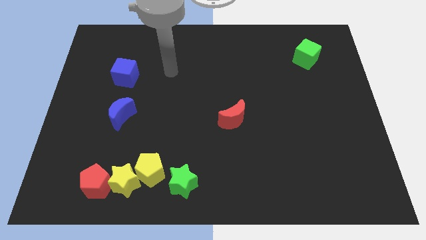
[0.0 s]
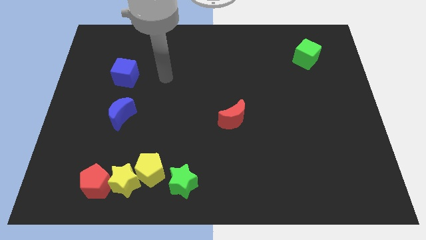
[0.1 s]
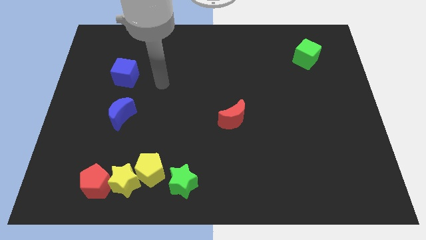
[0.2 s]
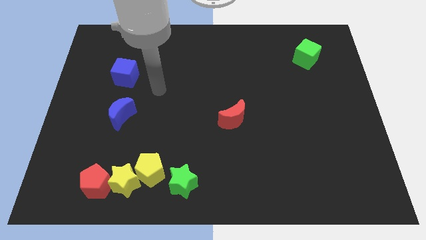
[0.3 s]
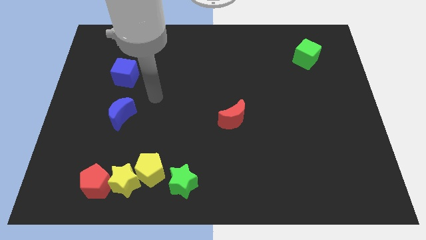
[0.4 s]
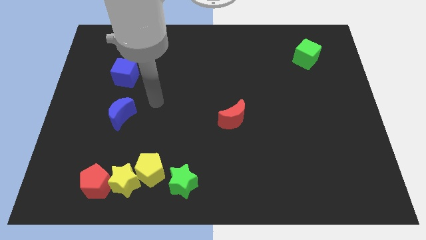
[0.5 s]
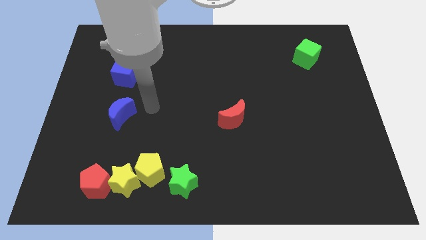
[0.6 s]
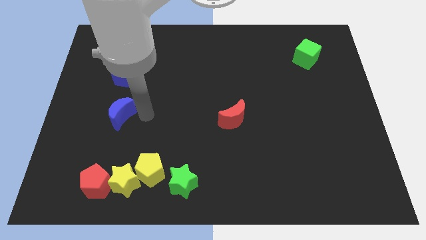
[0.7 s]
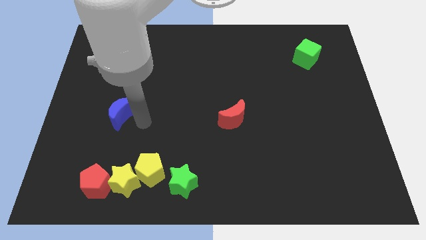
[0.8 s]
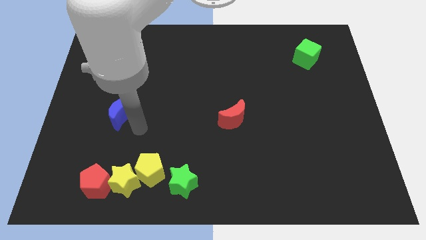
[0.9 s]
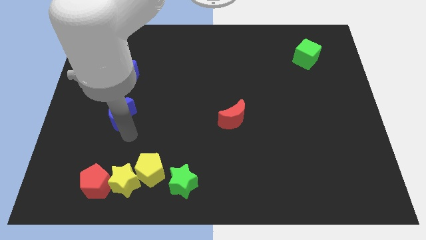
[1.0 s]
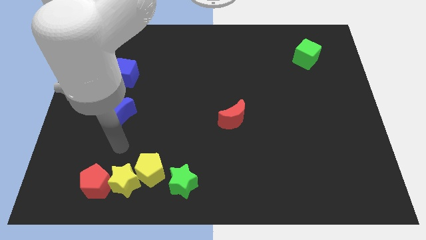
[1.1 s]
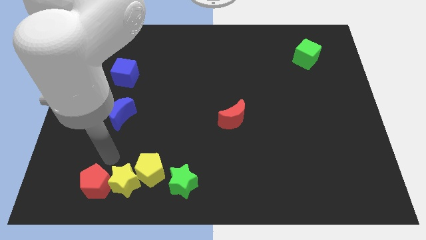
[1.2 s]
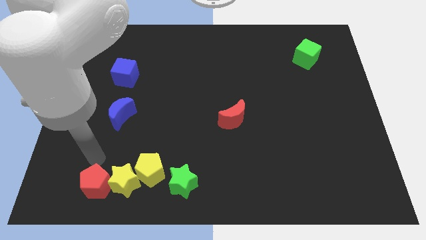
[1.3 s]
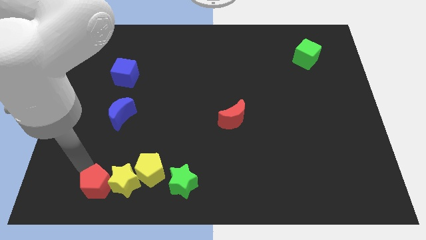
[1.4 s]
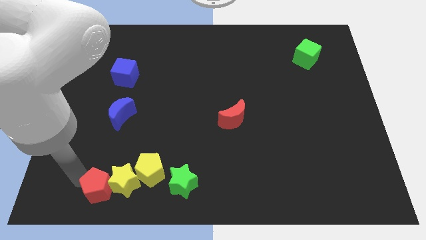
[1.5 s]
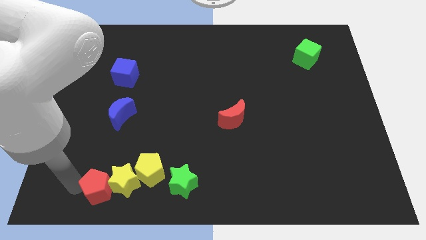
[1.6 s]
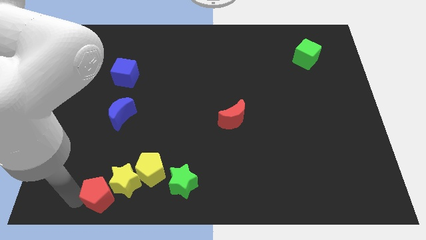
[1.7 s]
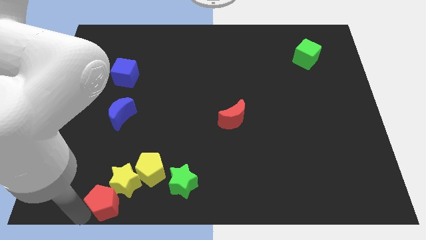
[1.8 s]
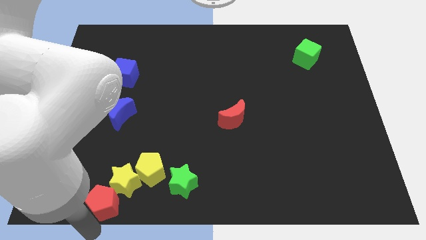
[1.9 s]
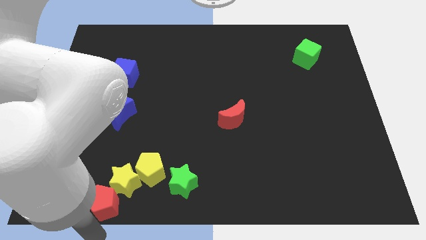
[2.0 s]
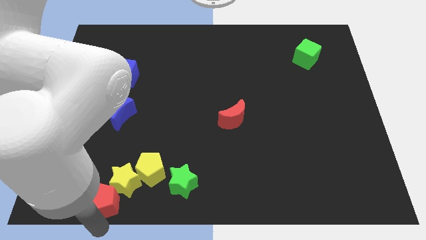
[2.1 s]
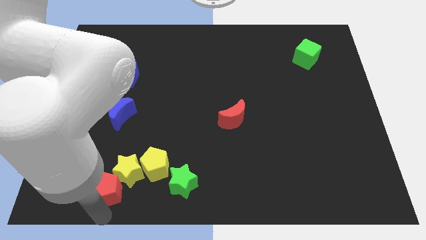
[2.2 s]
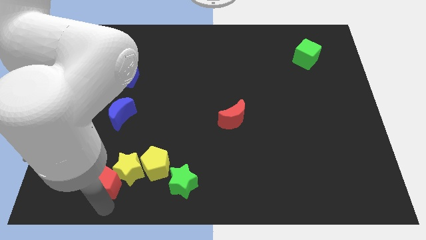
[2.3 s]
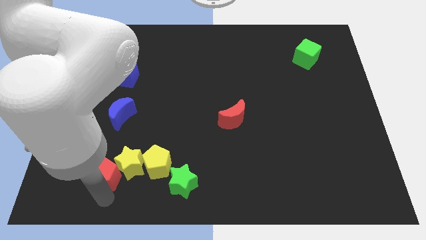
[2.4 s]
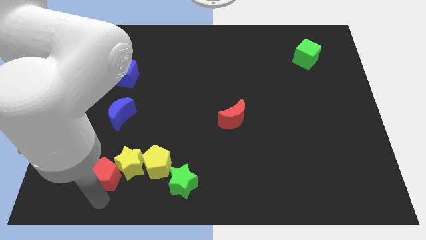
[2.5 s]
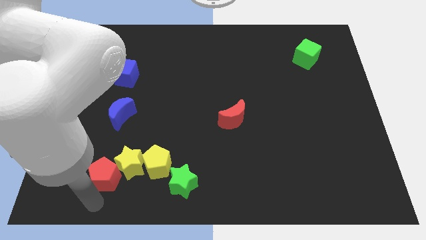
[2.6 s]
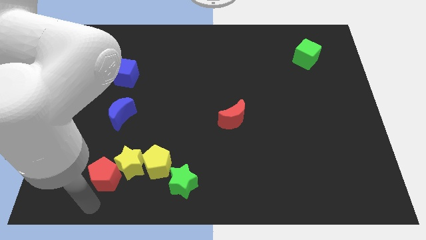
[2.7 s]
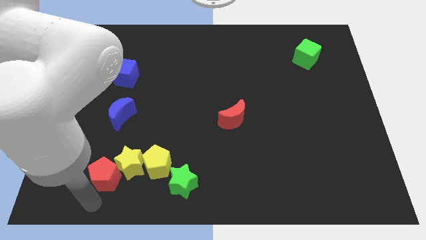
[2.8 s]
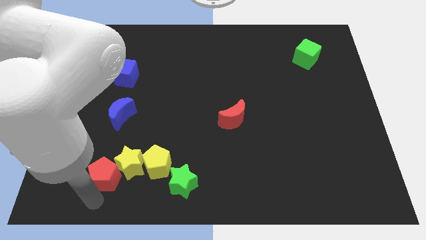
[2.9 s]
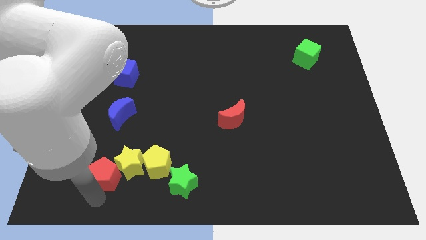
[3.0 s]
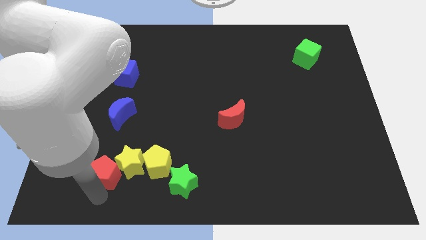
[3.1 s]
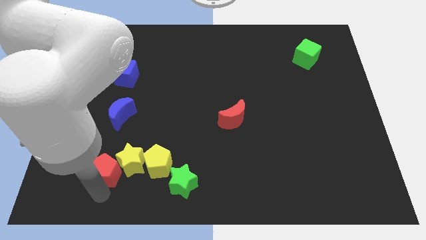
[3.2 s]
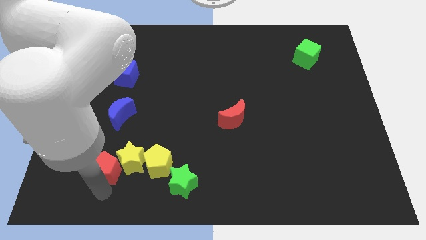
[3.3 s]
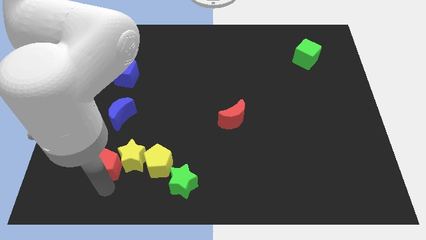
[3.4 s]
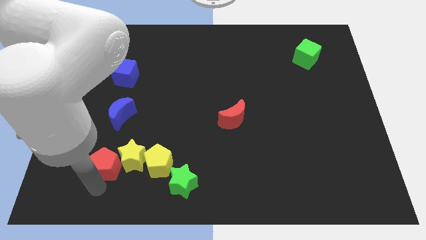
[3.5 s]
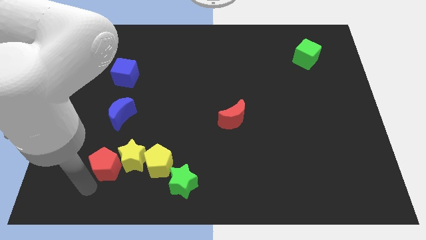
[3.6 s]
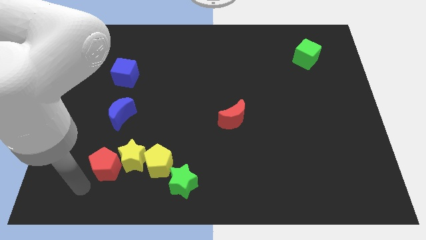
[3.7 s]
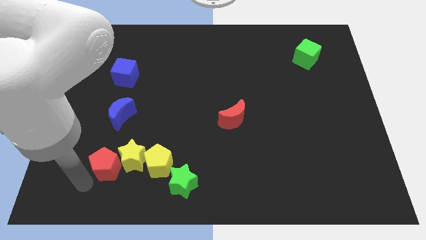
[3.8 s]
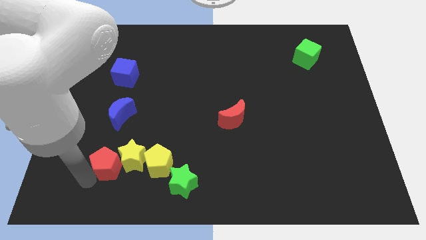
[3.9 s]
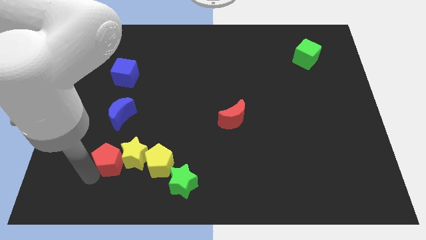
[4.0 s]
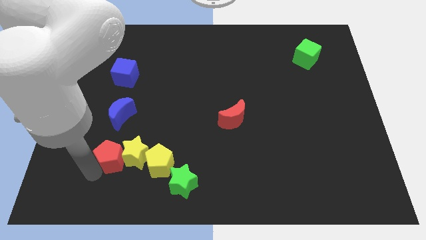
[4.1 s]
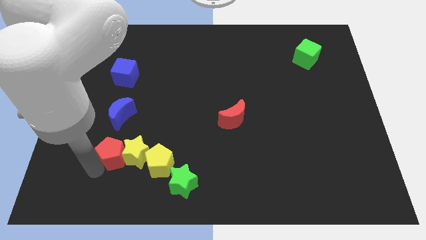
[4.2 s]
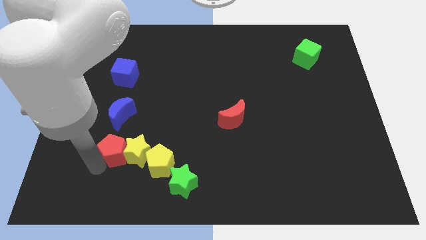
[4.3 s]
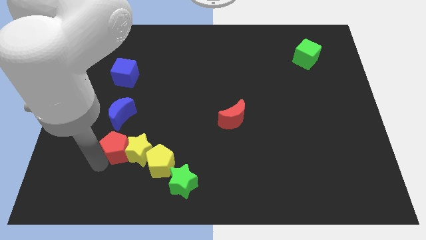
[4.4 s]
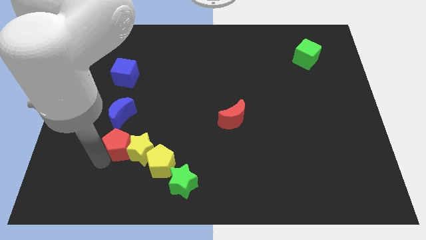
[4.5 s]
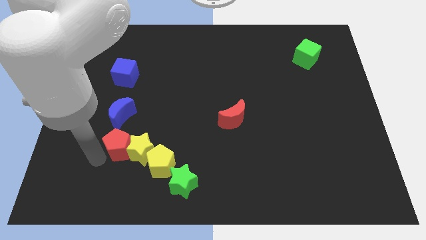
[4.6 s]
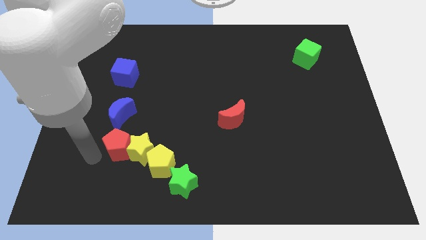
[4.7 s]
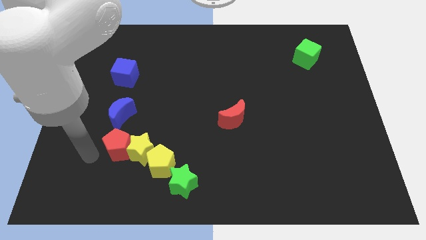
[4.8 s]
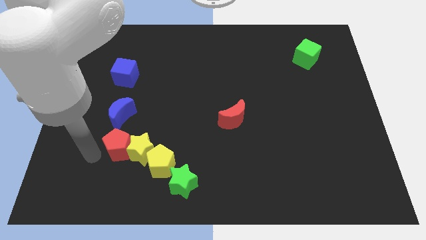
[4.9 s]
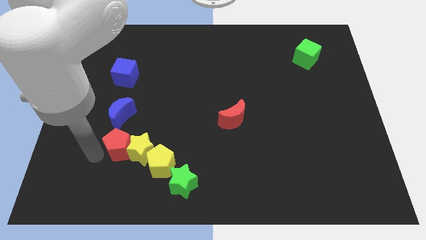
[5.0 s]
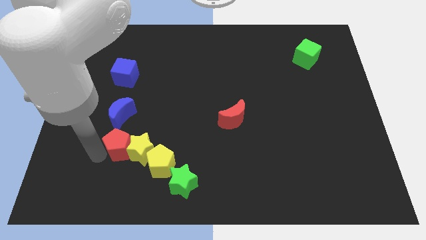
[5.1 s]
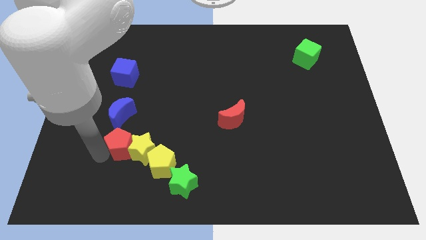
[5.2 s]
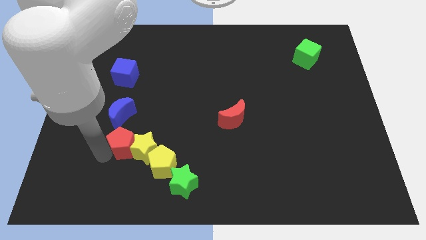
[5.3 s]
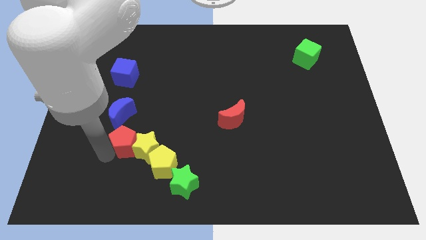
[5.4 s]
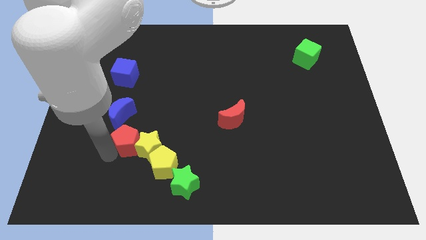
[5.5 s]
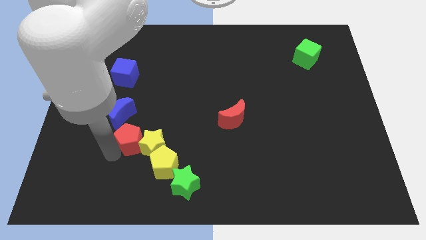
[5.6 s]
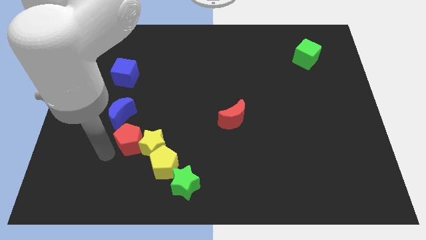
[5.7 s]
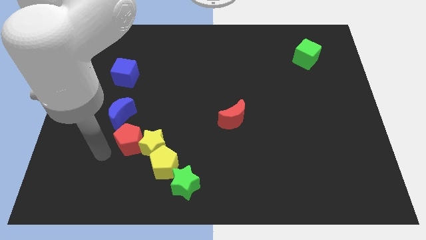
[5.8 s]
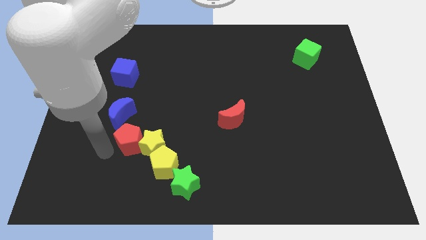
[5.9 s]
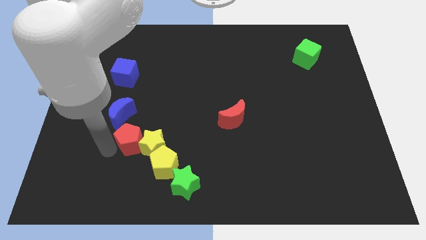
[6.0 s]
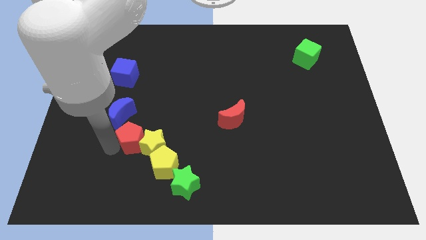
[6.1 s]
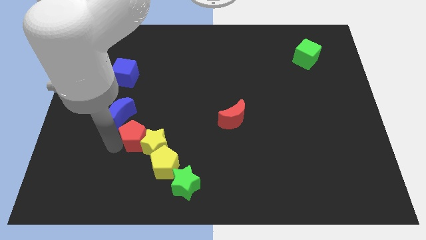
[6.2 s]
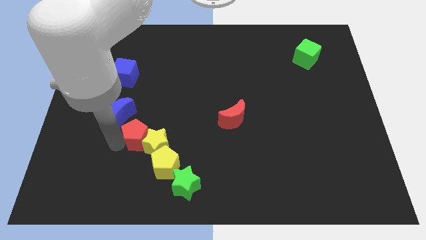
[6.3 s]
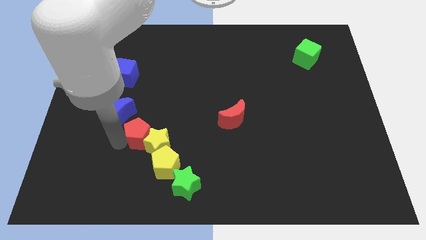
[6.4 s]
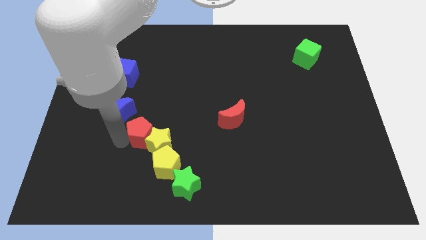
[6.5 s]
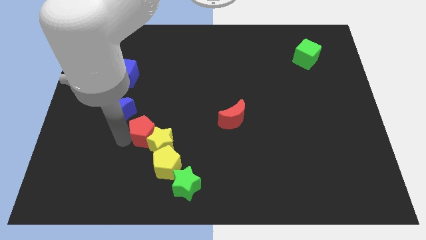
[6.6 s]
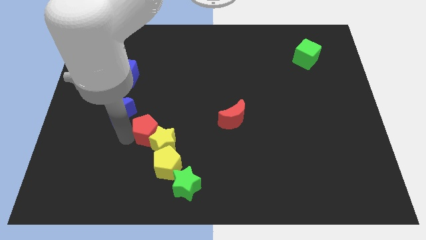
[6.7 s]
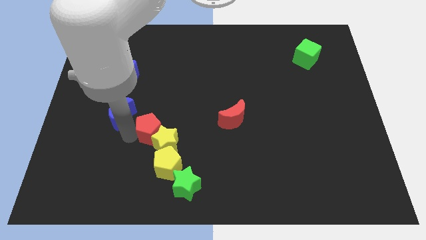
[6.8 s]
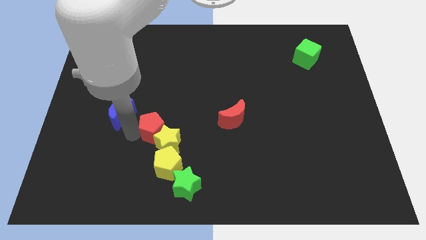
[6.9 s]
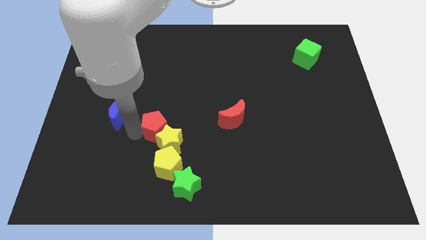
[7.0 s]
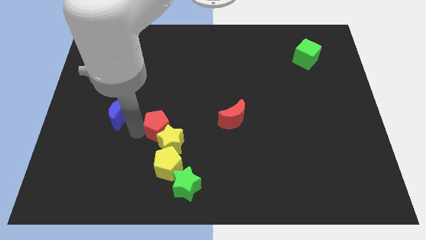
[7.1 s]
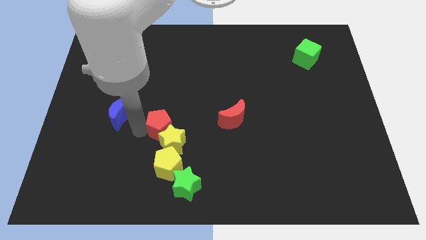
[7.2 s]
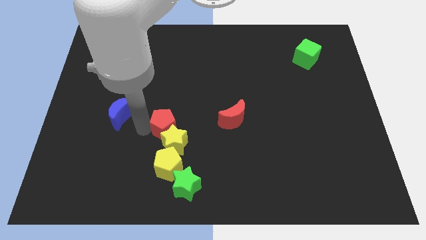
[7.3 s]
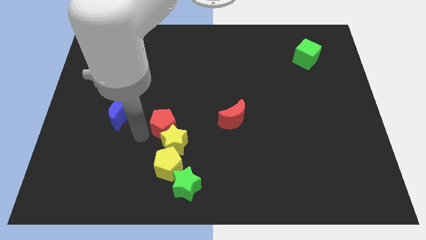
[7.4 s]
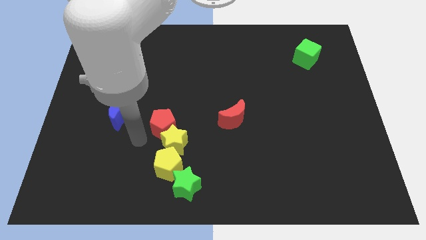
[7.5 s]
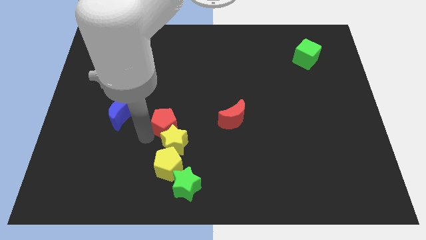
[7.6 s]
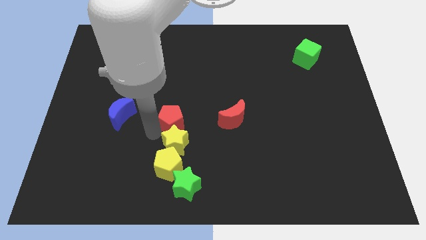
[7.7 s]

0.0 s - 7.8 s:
push the red pentagon upwards and to the right
